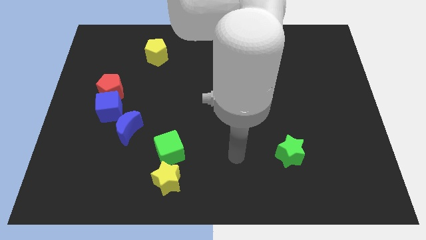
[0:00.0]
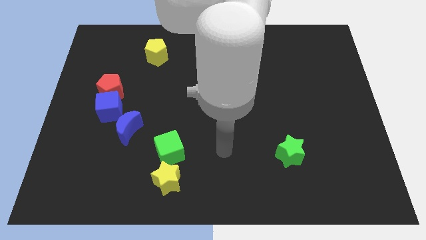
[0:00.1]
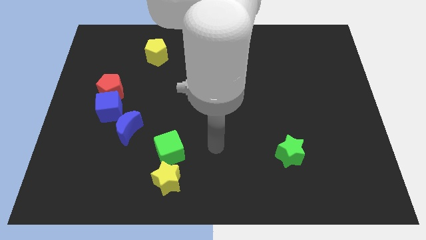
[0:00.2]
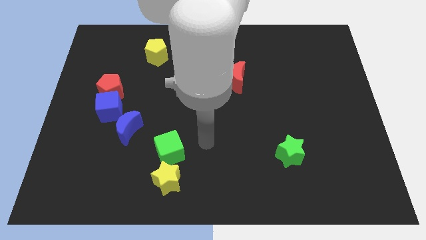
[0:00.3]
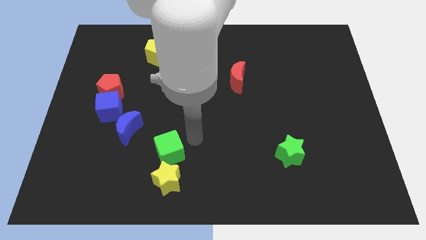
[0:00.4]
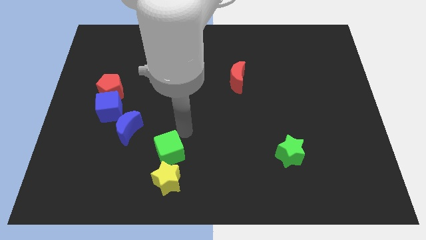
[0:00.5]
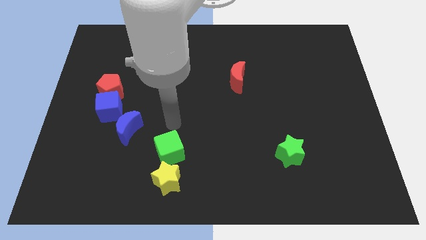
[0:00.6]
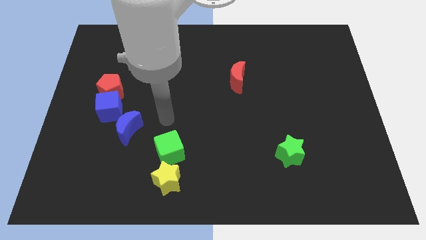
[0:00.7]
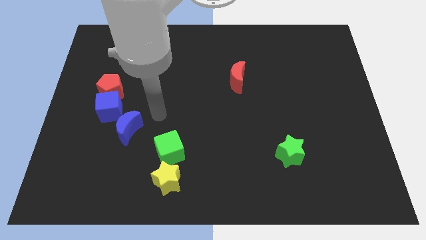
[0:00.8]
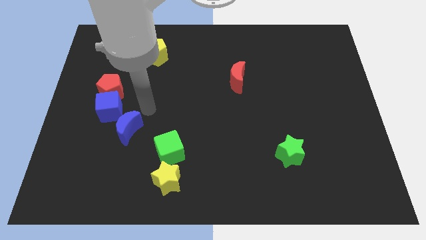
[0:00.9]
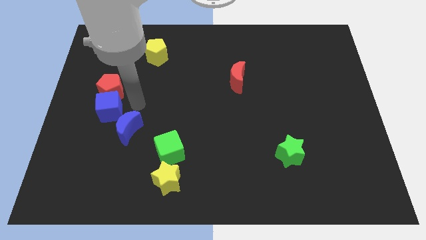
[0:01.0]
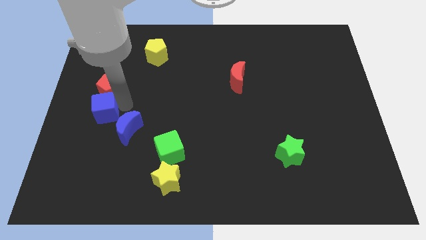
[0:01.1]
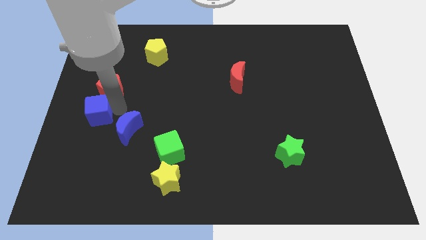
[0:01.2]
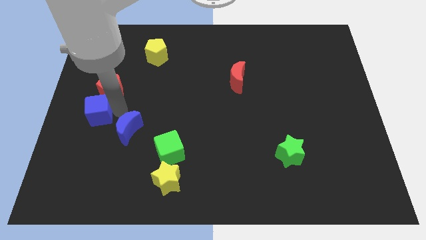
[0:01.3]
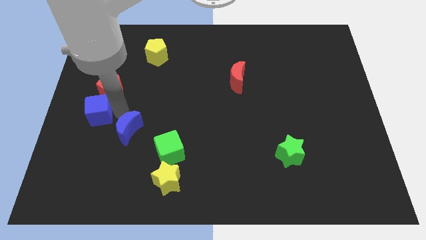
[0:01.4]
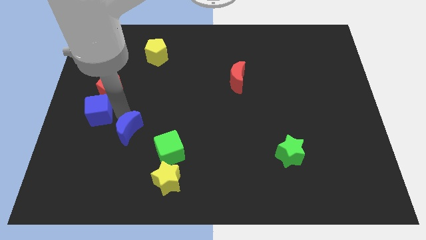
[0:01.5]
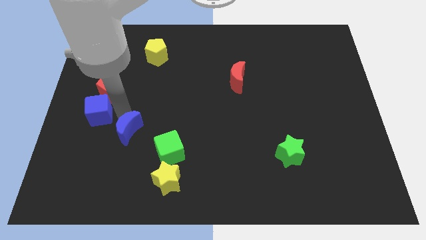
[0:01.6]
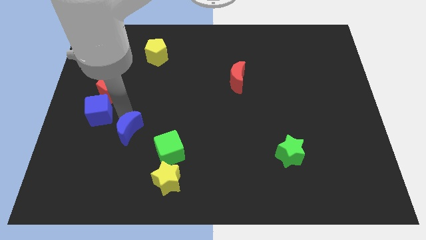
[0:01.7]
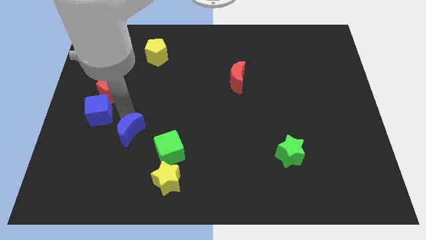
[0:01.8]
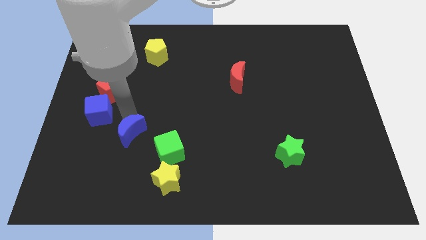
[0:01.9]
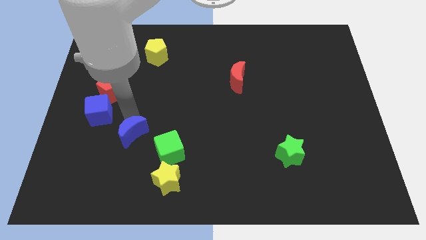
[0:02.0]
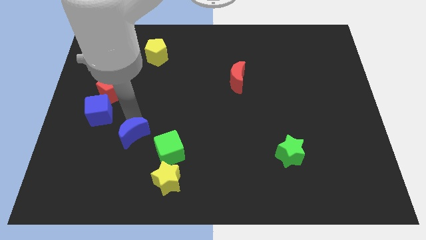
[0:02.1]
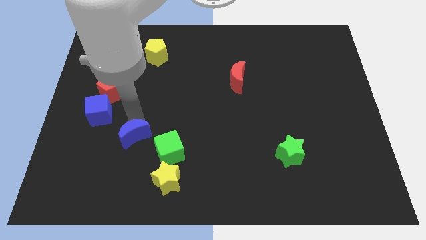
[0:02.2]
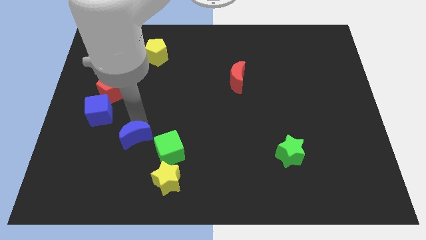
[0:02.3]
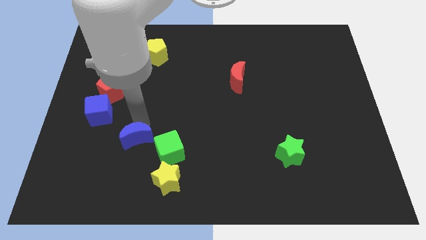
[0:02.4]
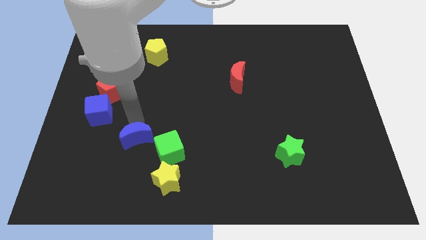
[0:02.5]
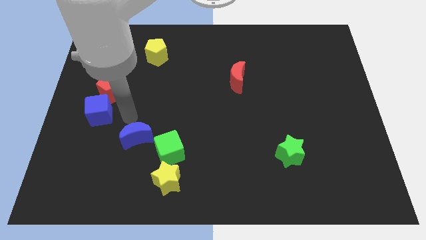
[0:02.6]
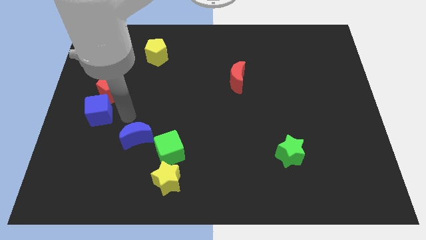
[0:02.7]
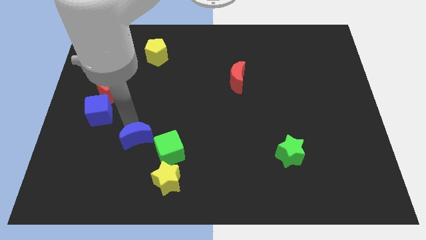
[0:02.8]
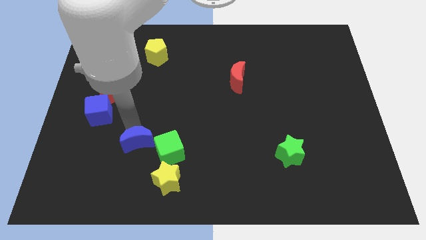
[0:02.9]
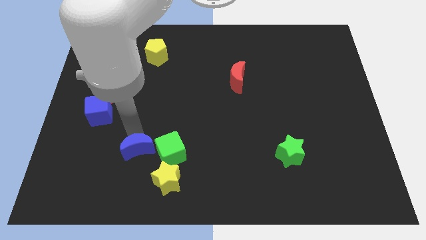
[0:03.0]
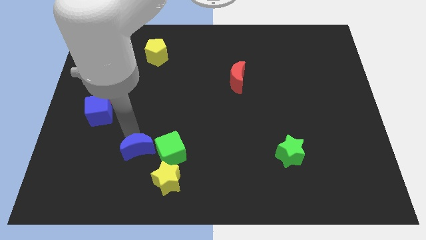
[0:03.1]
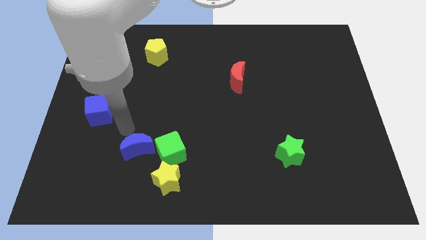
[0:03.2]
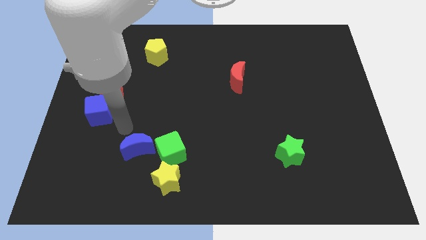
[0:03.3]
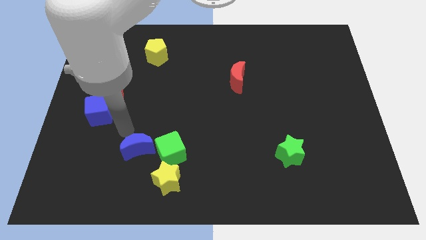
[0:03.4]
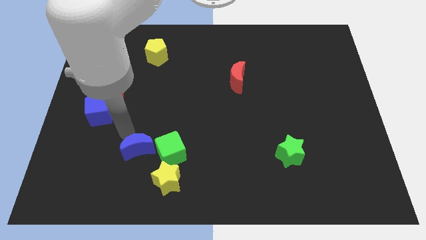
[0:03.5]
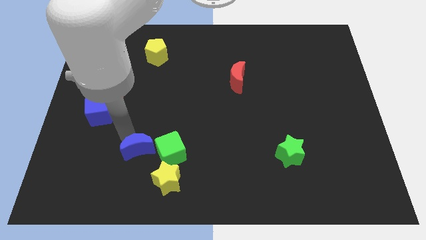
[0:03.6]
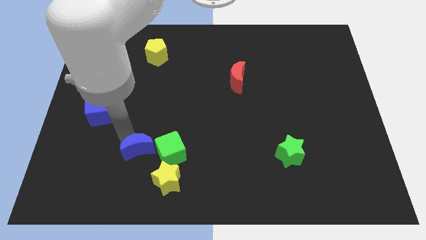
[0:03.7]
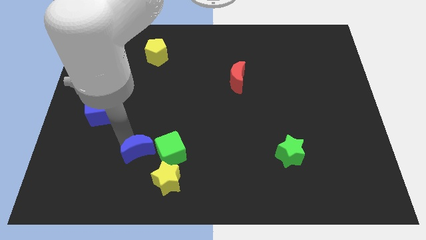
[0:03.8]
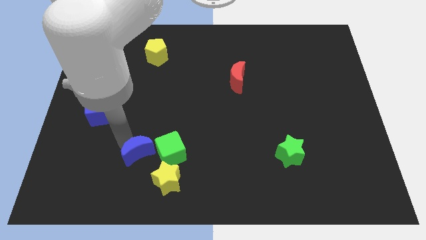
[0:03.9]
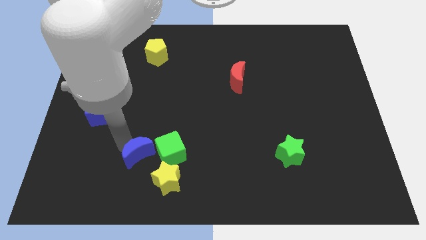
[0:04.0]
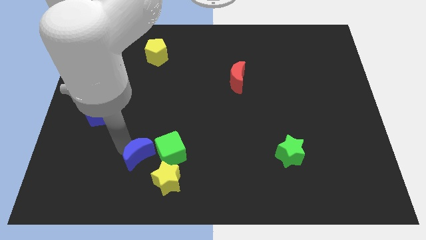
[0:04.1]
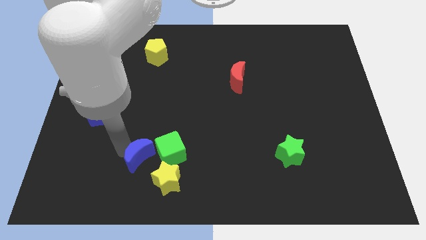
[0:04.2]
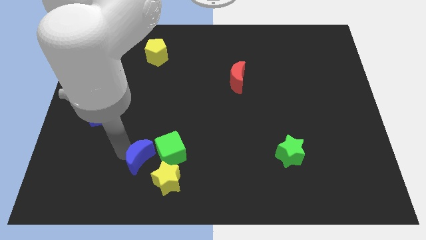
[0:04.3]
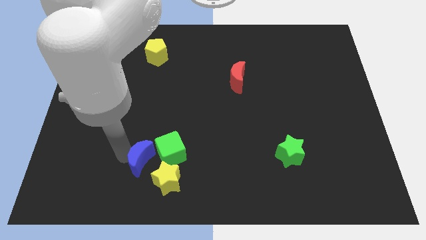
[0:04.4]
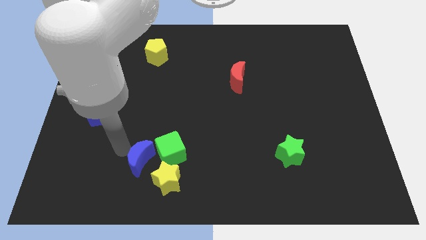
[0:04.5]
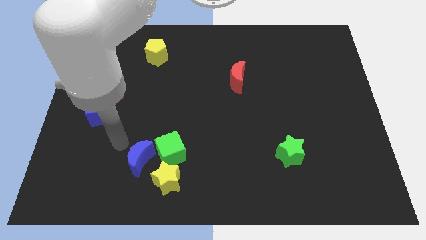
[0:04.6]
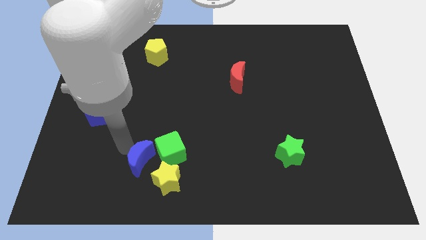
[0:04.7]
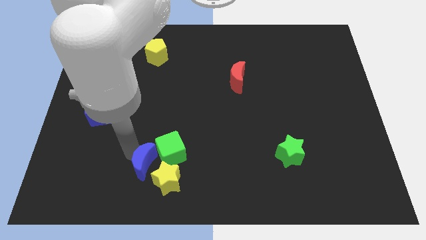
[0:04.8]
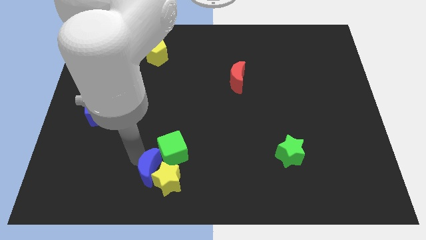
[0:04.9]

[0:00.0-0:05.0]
slide the blue moon to the yellow star

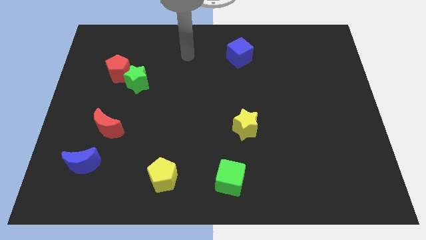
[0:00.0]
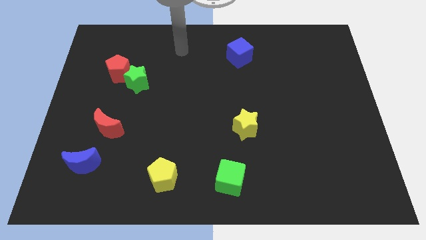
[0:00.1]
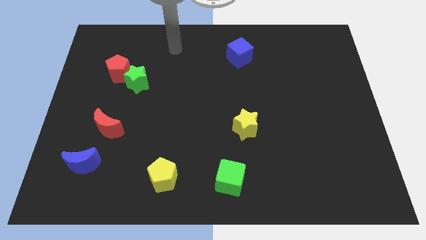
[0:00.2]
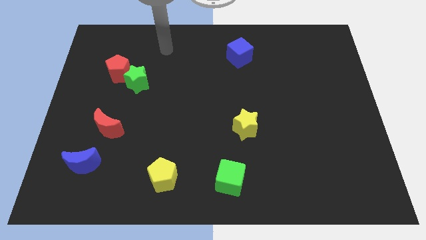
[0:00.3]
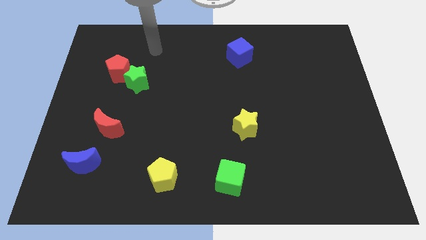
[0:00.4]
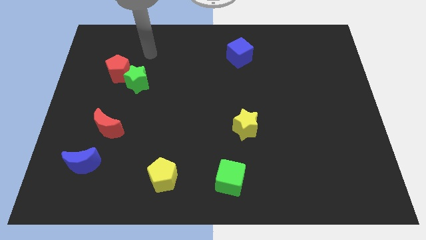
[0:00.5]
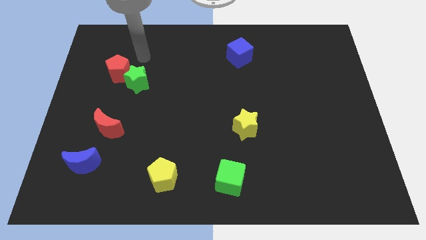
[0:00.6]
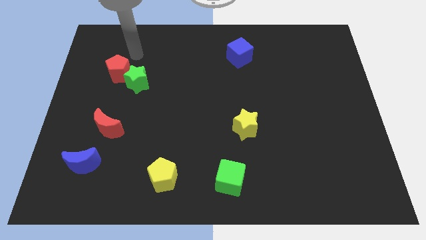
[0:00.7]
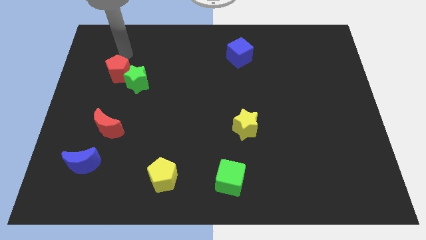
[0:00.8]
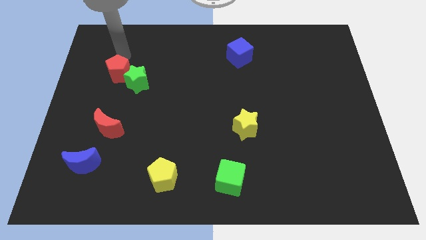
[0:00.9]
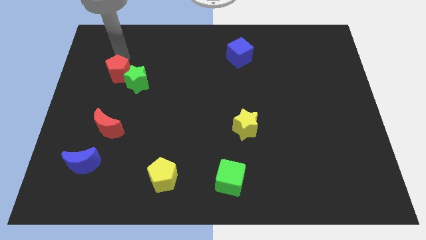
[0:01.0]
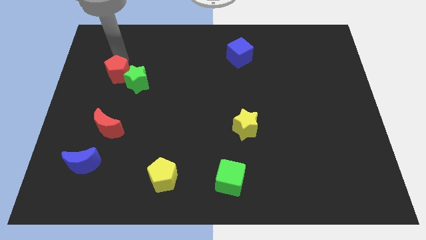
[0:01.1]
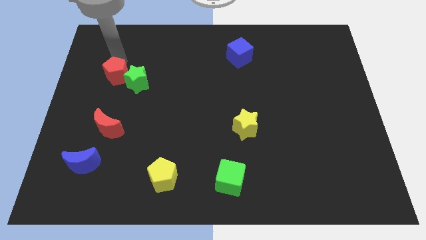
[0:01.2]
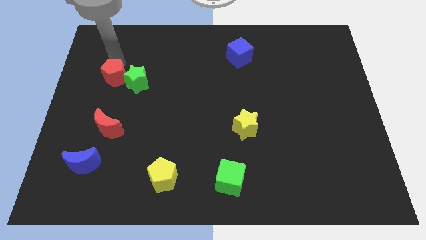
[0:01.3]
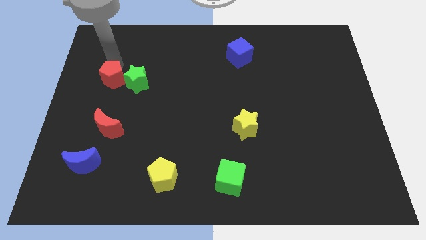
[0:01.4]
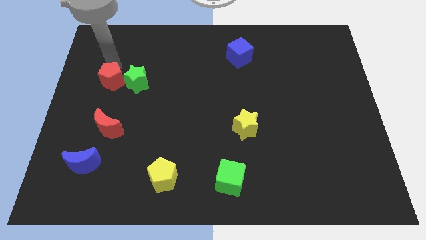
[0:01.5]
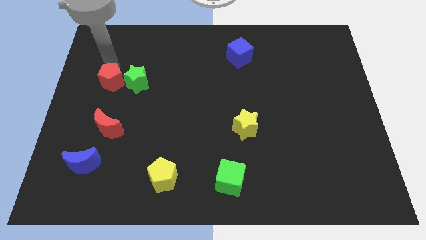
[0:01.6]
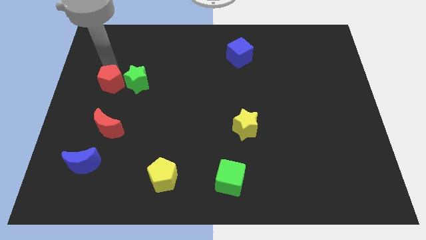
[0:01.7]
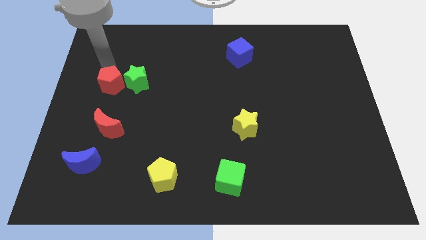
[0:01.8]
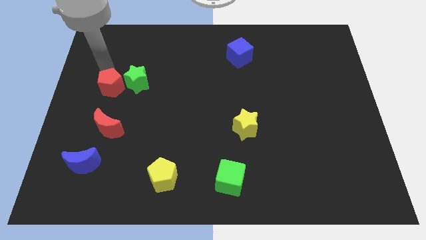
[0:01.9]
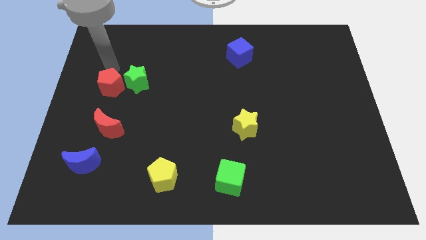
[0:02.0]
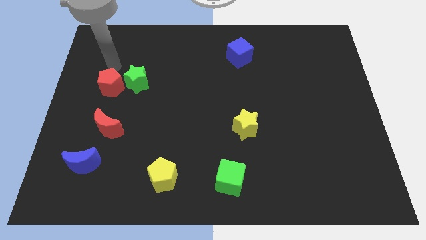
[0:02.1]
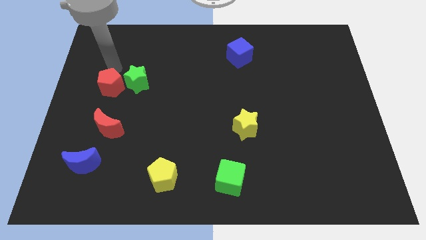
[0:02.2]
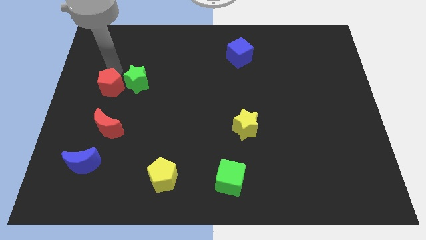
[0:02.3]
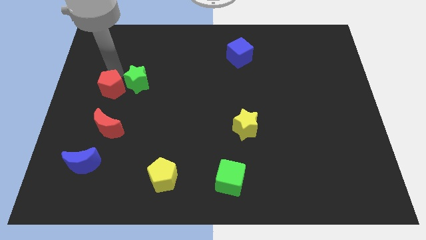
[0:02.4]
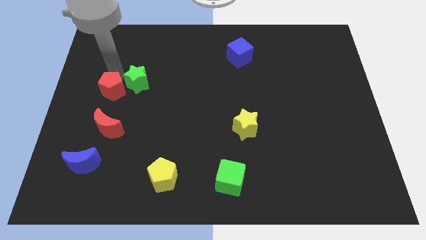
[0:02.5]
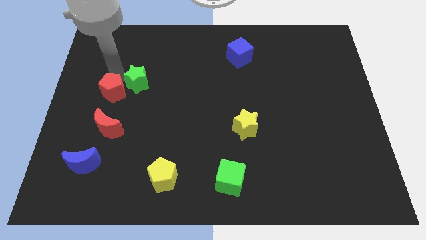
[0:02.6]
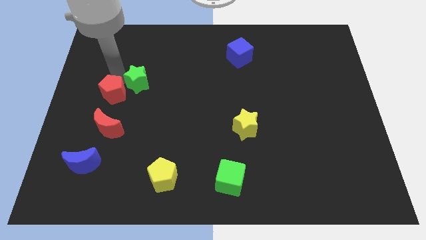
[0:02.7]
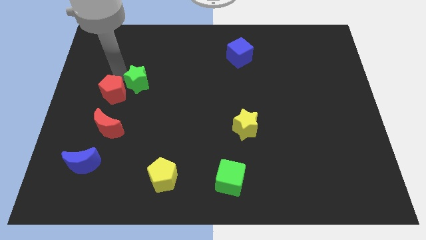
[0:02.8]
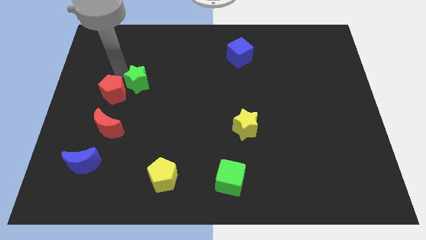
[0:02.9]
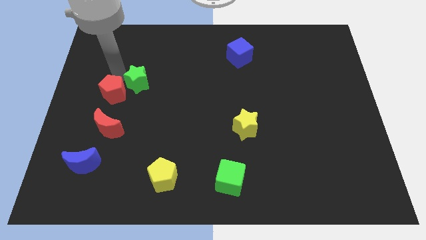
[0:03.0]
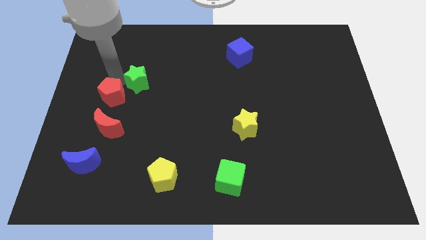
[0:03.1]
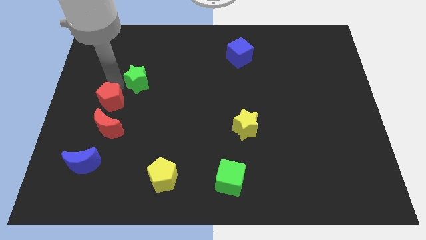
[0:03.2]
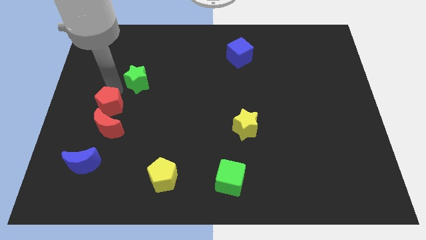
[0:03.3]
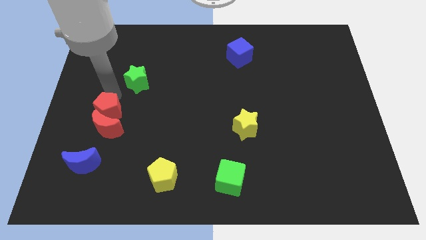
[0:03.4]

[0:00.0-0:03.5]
move the red pentagon towards the red moon
